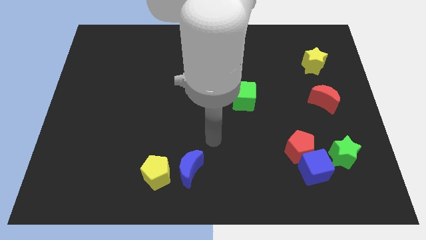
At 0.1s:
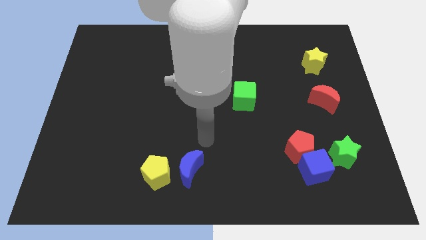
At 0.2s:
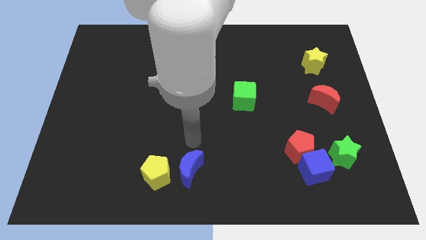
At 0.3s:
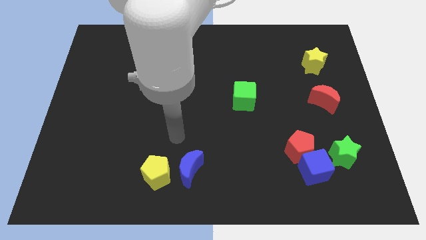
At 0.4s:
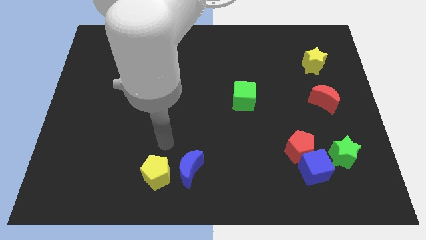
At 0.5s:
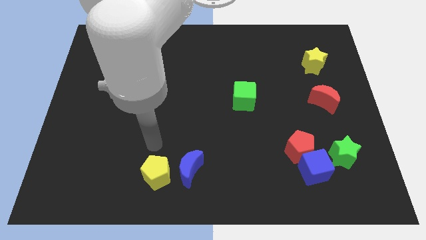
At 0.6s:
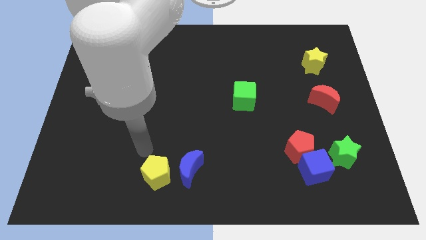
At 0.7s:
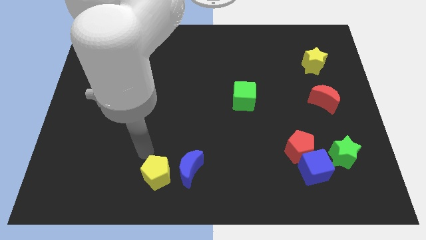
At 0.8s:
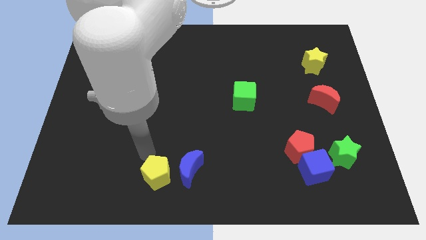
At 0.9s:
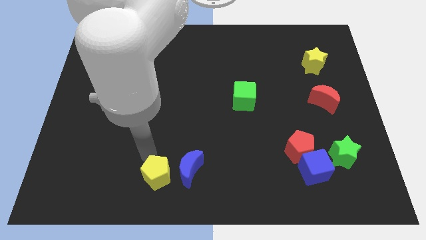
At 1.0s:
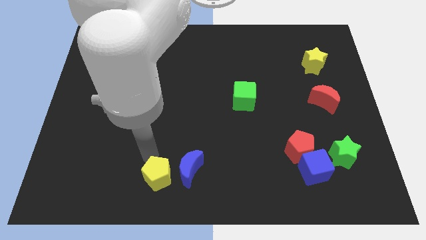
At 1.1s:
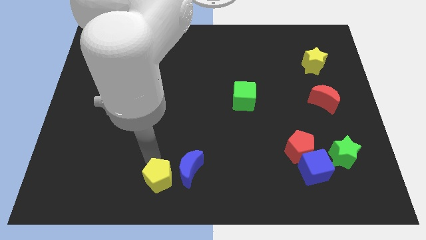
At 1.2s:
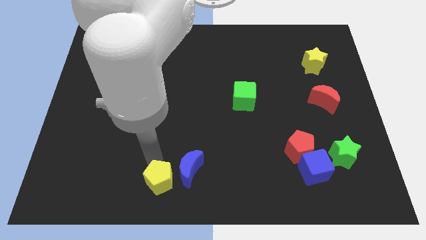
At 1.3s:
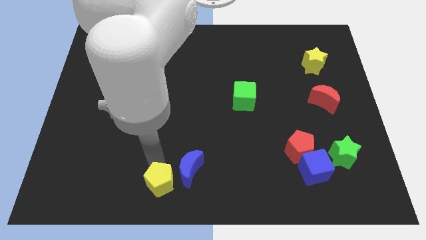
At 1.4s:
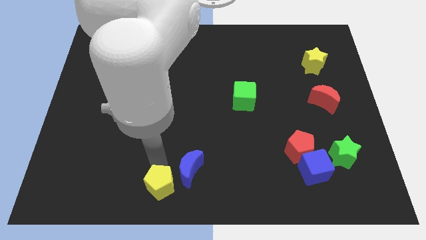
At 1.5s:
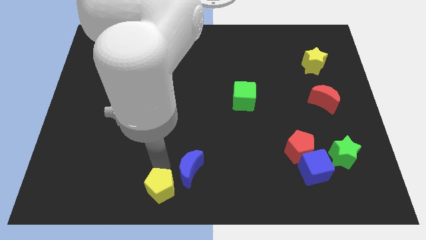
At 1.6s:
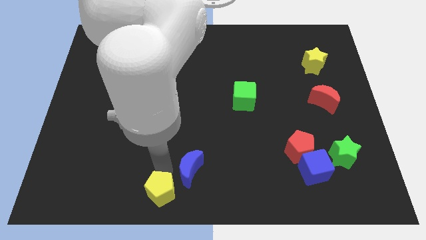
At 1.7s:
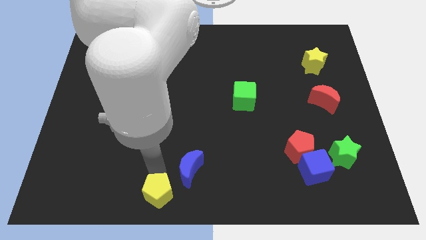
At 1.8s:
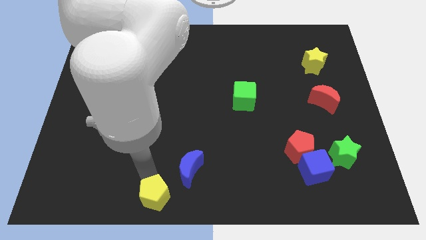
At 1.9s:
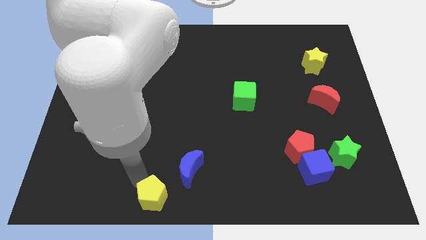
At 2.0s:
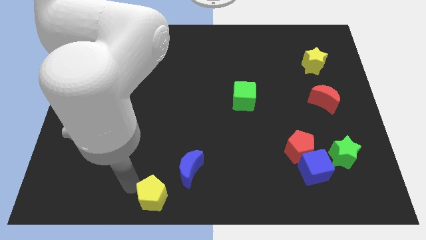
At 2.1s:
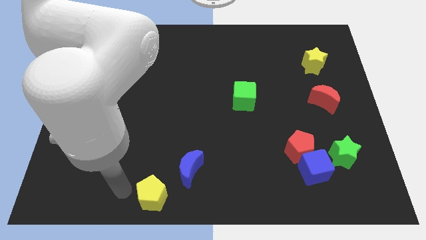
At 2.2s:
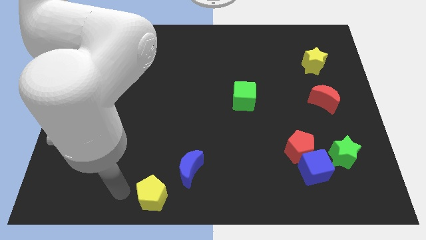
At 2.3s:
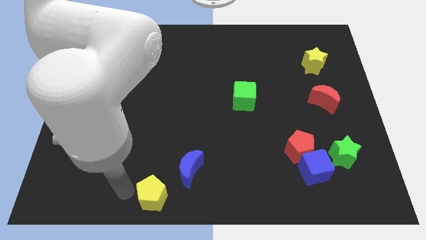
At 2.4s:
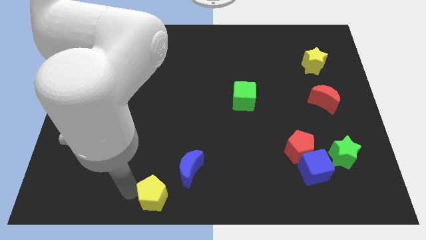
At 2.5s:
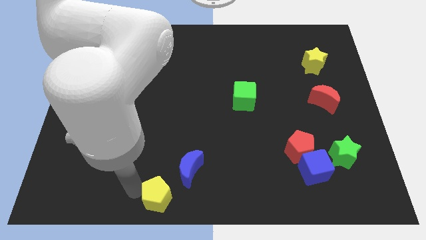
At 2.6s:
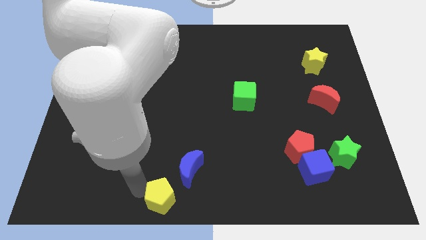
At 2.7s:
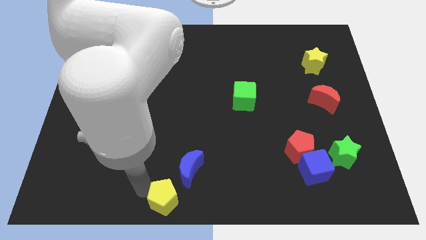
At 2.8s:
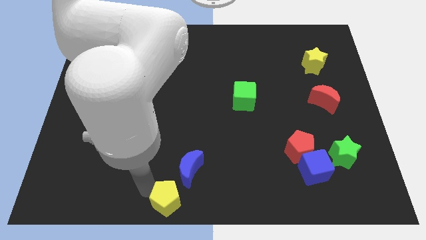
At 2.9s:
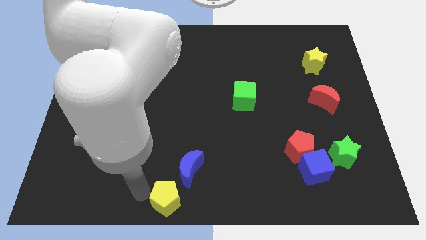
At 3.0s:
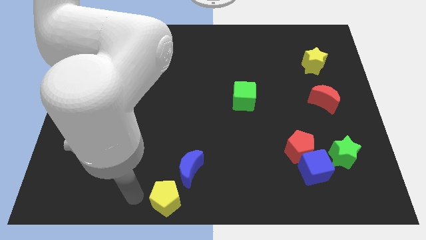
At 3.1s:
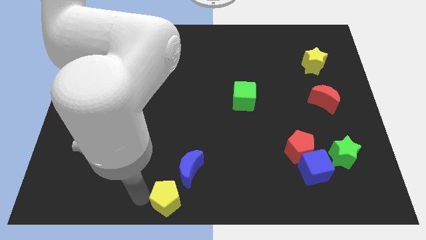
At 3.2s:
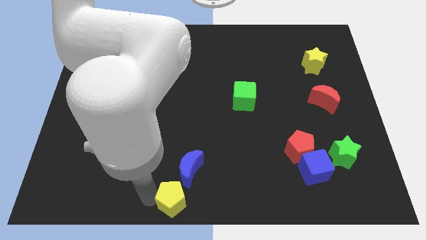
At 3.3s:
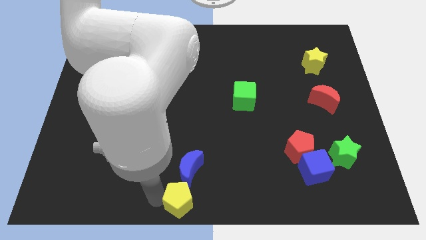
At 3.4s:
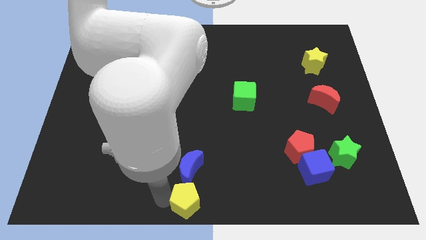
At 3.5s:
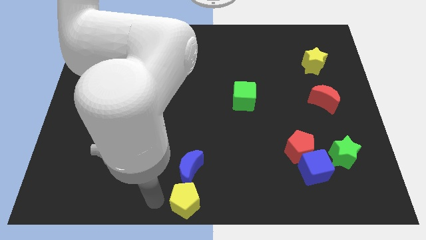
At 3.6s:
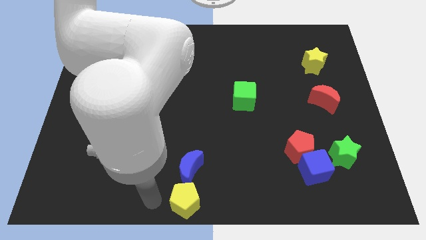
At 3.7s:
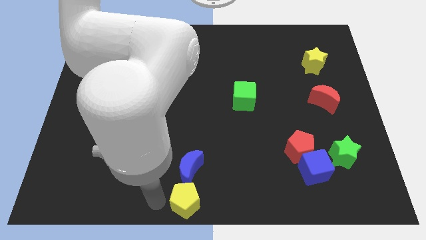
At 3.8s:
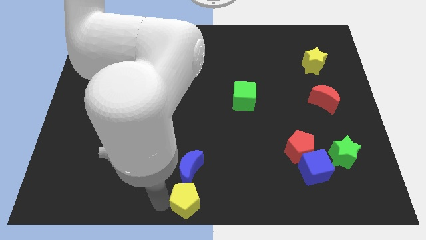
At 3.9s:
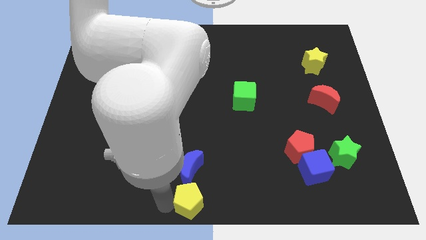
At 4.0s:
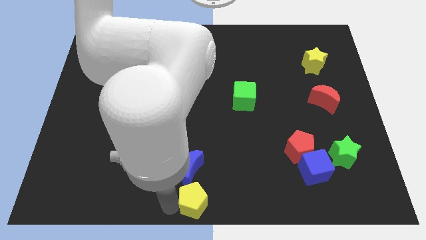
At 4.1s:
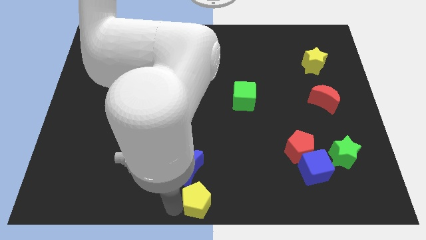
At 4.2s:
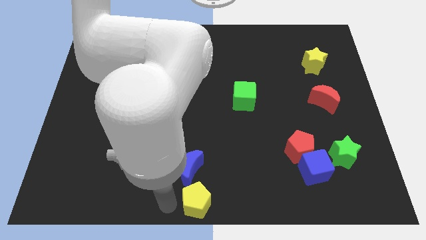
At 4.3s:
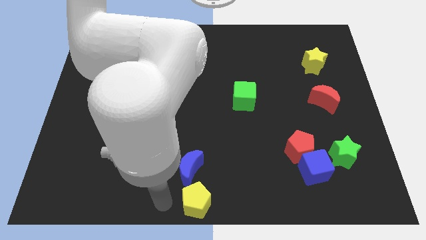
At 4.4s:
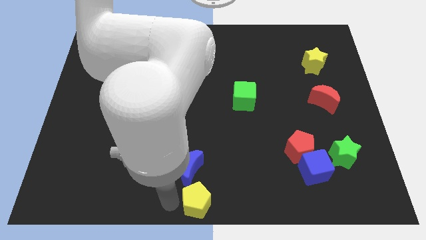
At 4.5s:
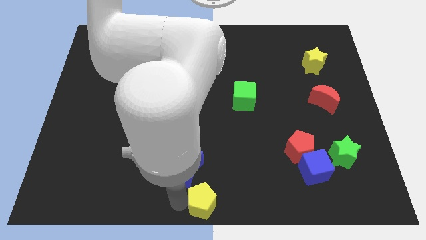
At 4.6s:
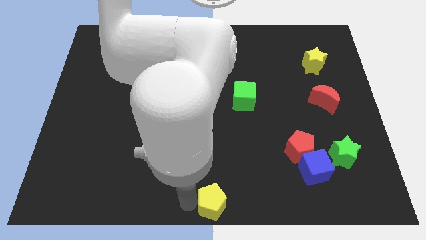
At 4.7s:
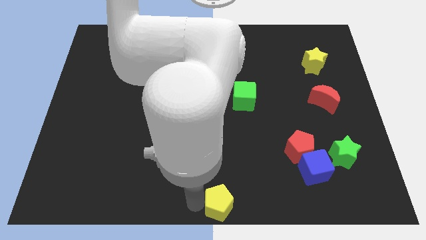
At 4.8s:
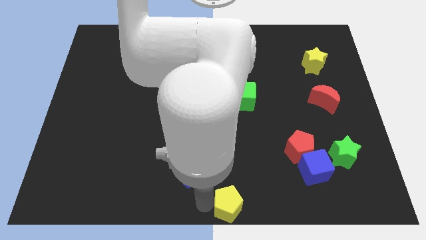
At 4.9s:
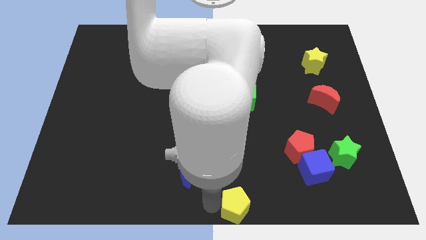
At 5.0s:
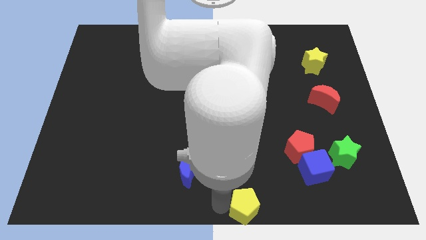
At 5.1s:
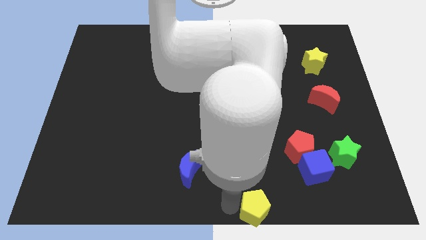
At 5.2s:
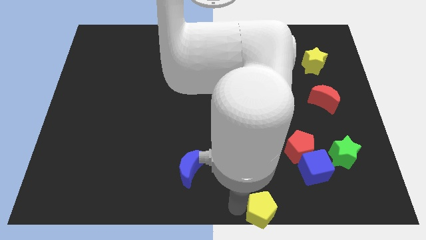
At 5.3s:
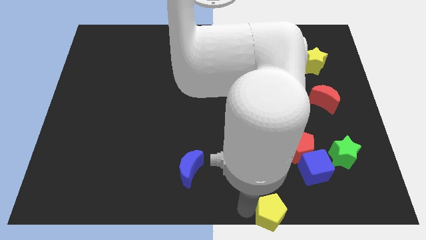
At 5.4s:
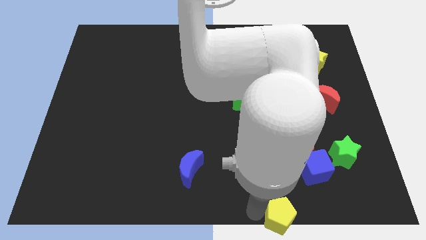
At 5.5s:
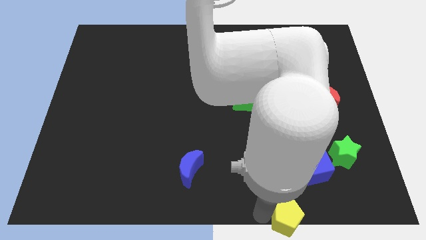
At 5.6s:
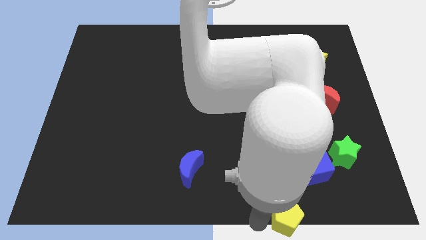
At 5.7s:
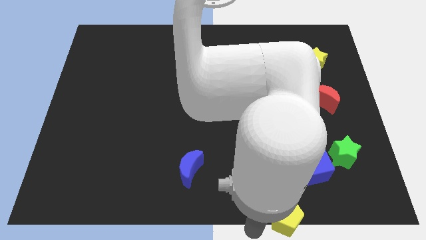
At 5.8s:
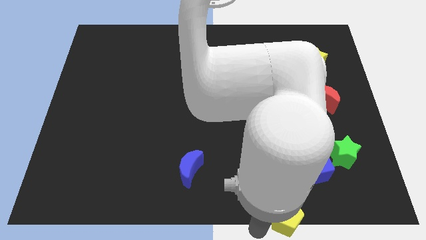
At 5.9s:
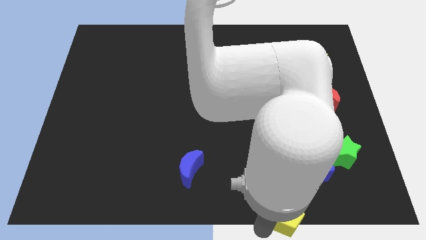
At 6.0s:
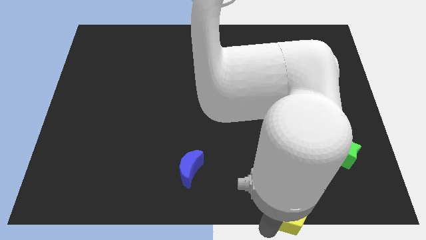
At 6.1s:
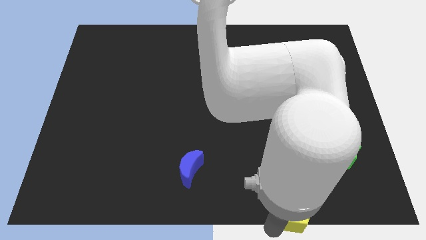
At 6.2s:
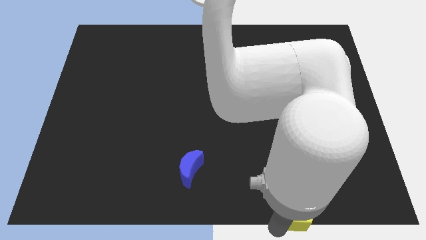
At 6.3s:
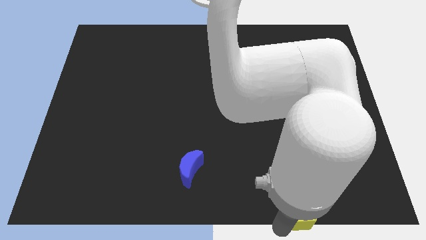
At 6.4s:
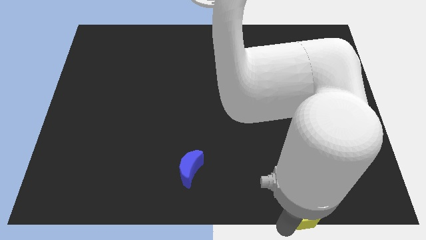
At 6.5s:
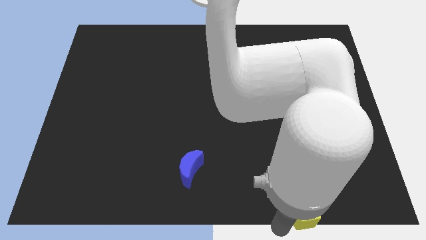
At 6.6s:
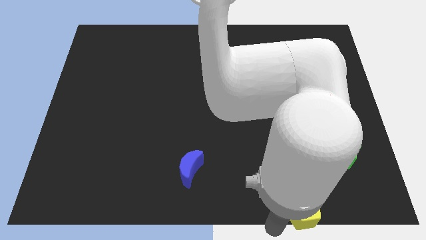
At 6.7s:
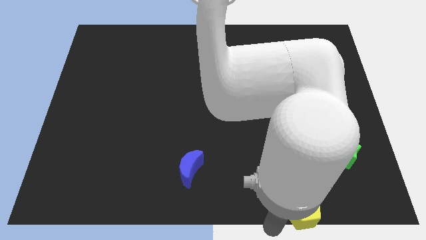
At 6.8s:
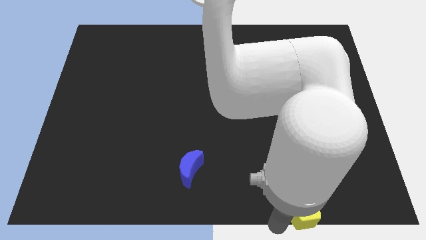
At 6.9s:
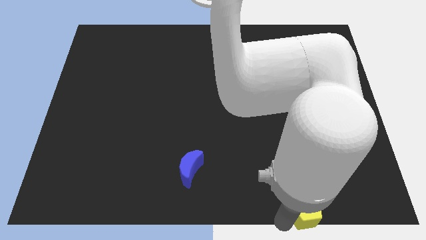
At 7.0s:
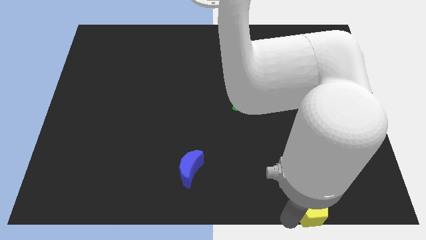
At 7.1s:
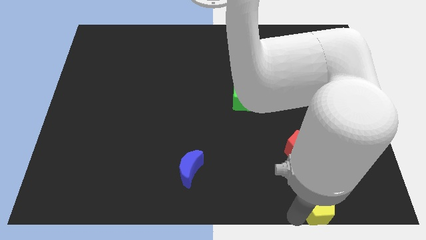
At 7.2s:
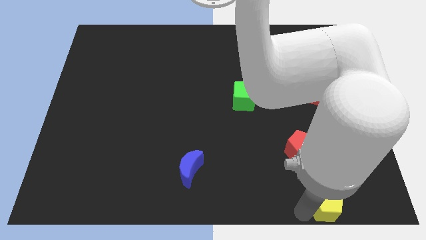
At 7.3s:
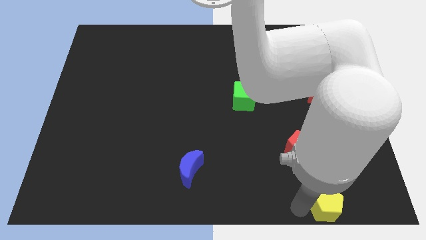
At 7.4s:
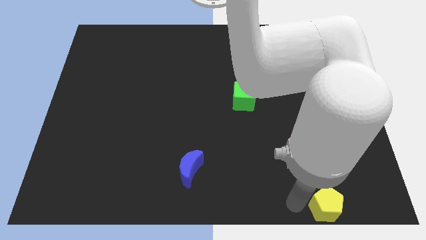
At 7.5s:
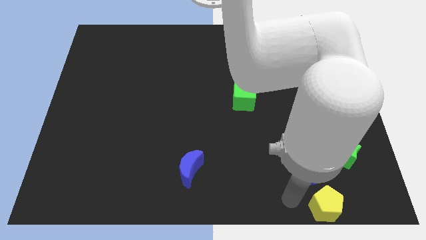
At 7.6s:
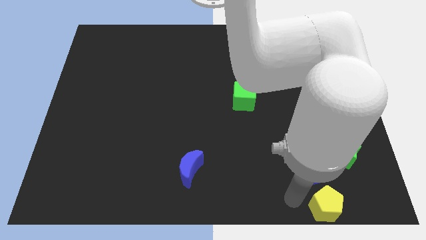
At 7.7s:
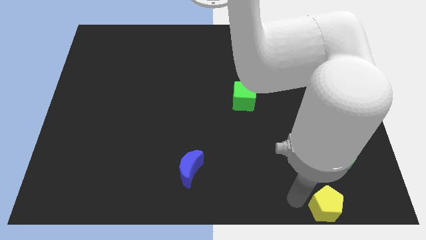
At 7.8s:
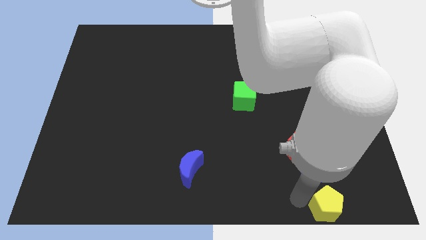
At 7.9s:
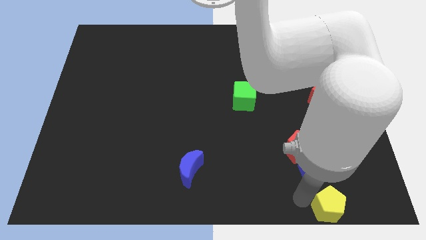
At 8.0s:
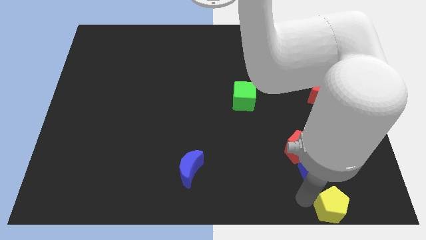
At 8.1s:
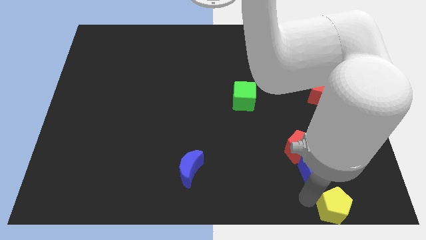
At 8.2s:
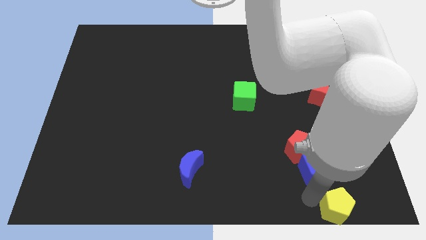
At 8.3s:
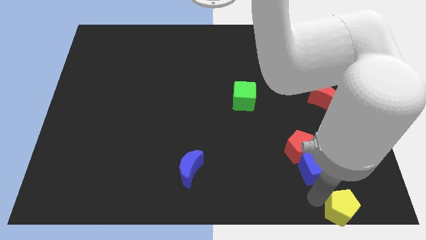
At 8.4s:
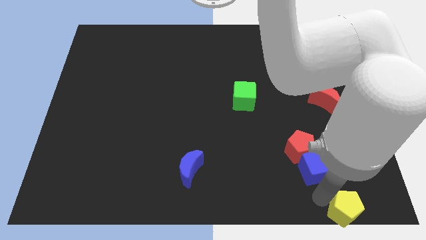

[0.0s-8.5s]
push the yellow pentagon to the bottom right of the board
